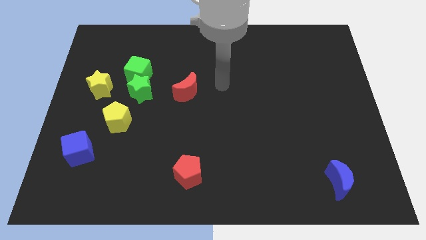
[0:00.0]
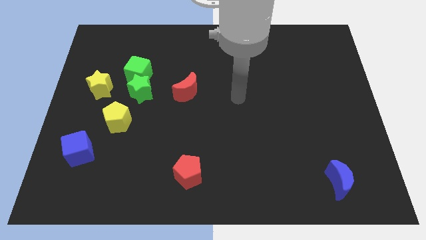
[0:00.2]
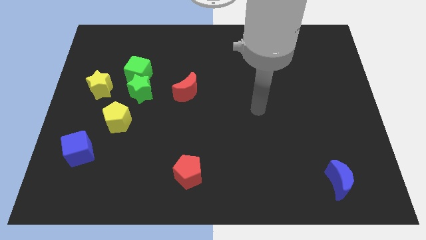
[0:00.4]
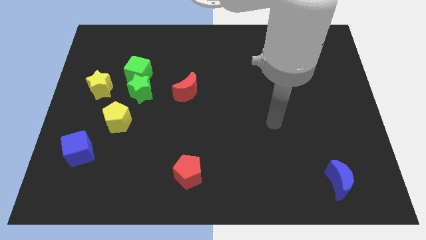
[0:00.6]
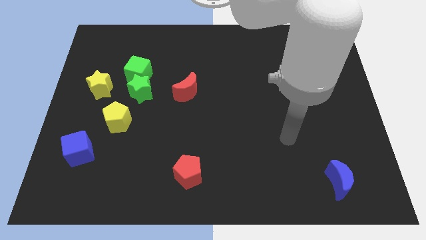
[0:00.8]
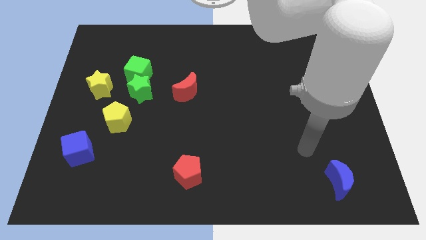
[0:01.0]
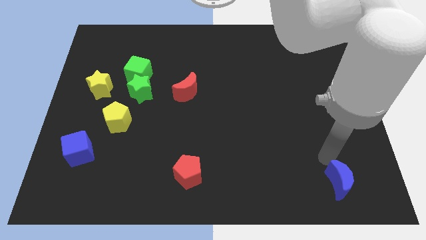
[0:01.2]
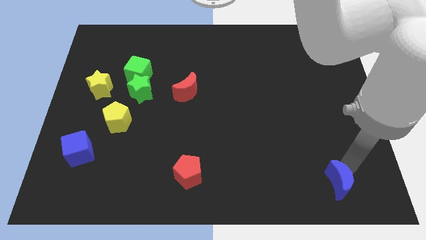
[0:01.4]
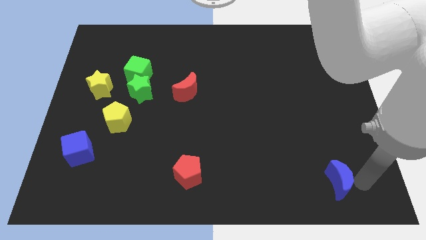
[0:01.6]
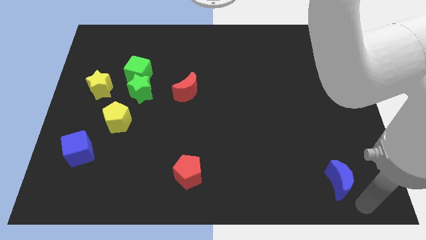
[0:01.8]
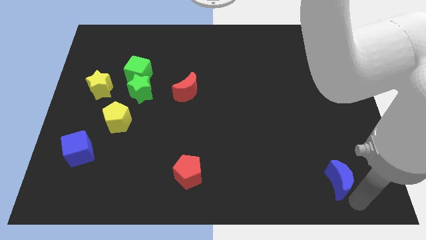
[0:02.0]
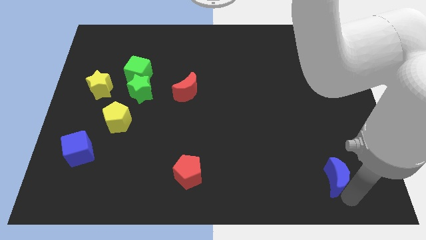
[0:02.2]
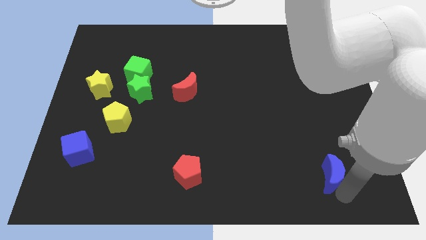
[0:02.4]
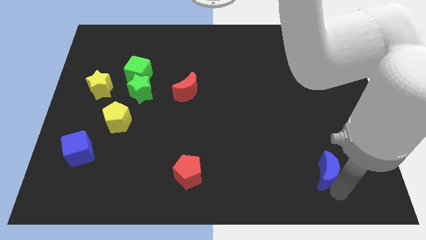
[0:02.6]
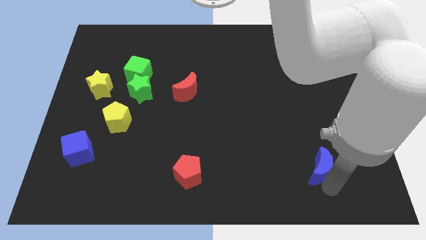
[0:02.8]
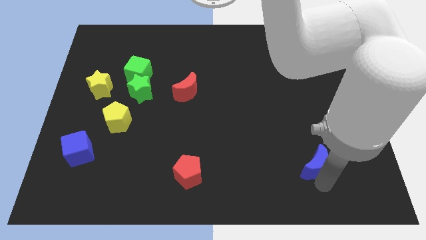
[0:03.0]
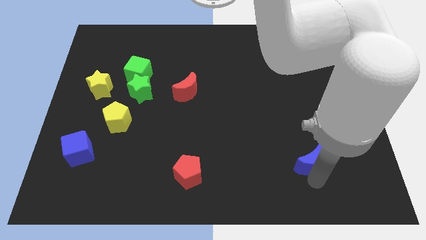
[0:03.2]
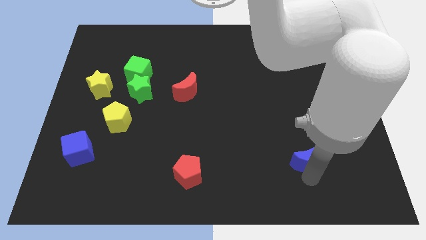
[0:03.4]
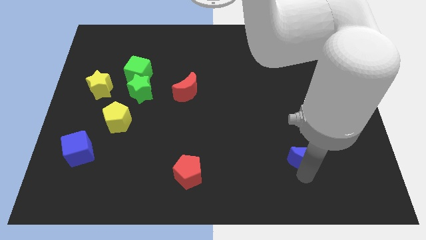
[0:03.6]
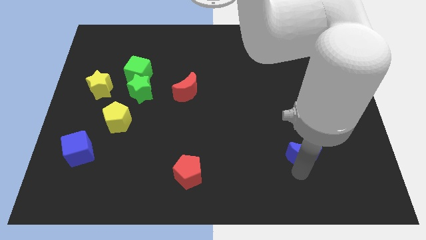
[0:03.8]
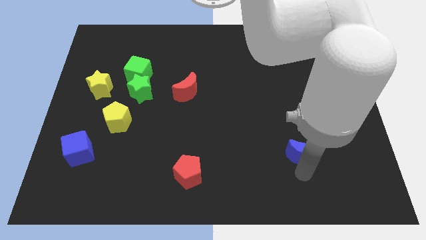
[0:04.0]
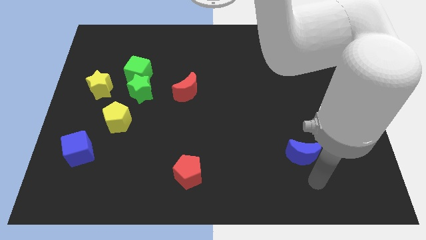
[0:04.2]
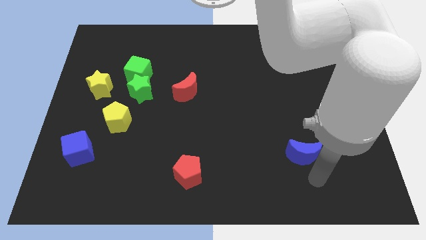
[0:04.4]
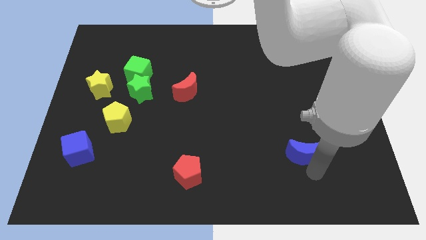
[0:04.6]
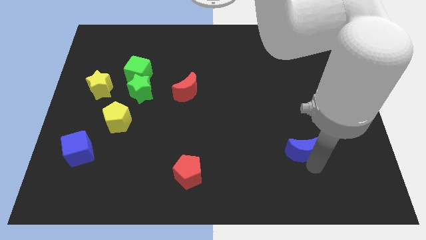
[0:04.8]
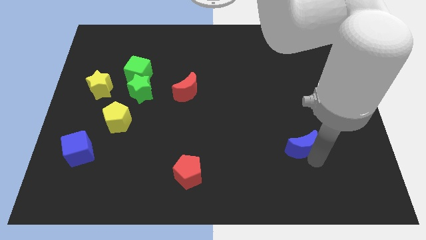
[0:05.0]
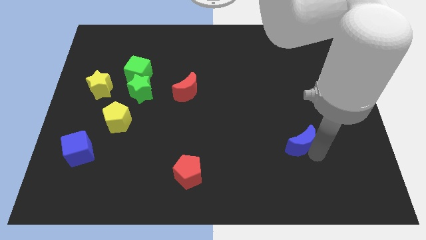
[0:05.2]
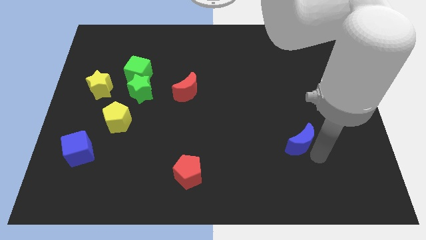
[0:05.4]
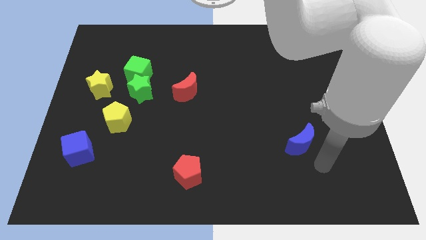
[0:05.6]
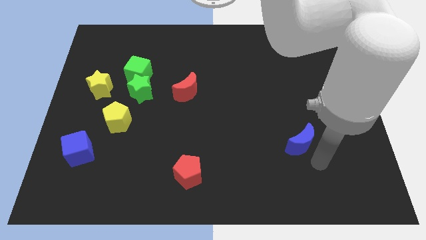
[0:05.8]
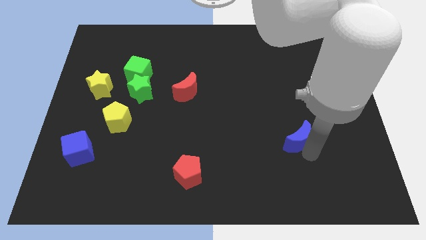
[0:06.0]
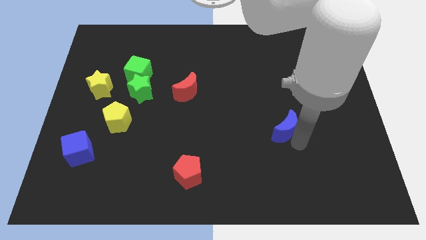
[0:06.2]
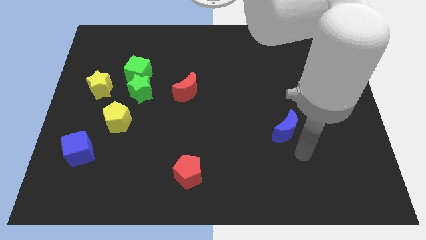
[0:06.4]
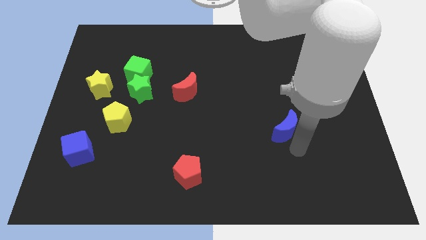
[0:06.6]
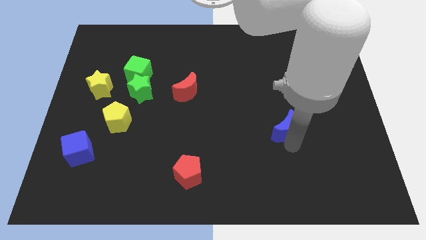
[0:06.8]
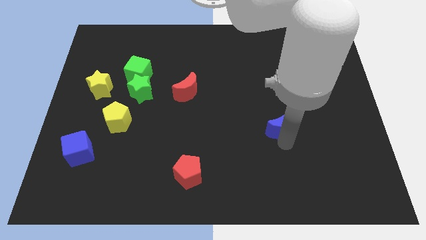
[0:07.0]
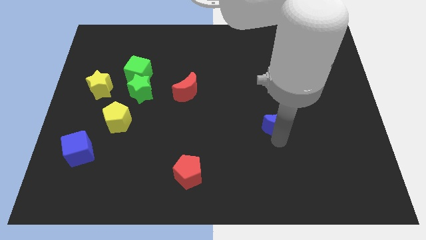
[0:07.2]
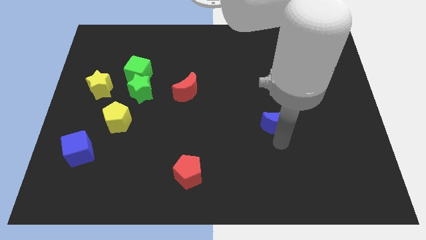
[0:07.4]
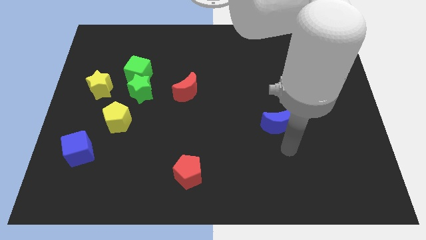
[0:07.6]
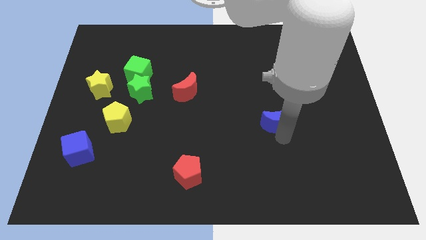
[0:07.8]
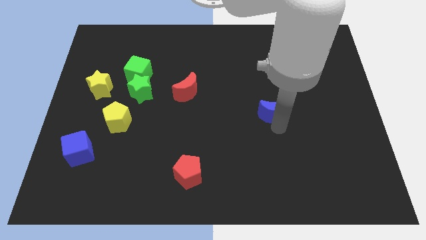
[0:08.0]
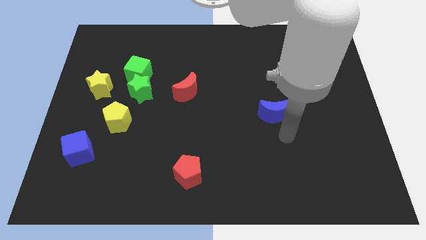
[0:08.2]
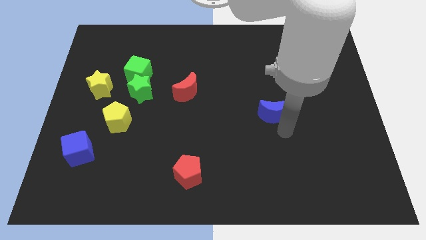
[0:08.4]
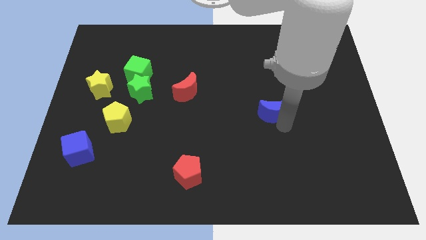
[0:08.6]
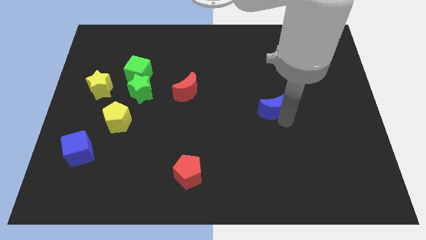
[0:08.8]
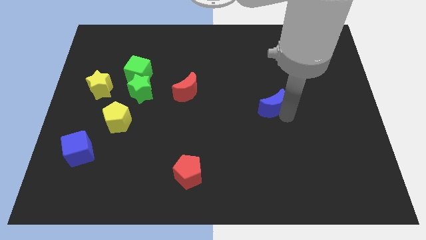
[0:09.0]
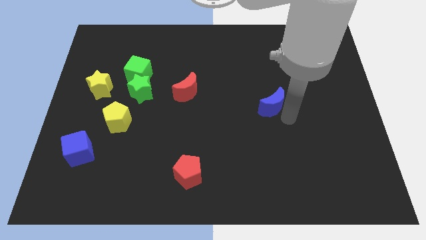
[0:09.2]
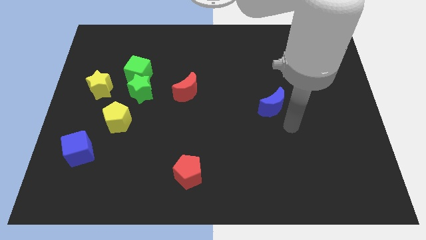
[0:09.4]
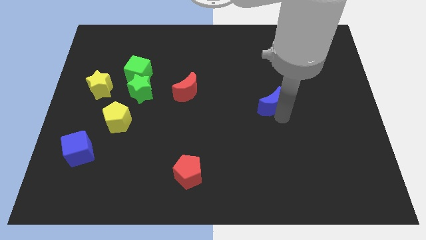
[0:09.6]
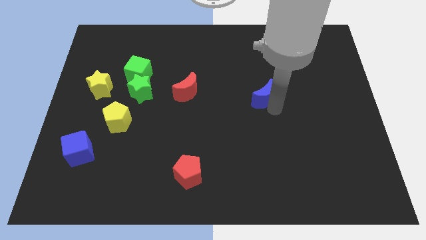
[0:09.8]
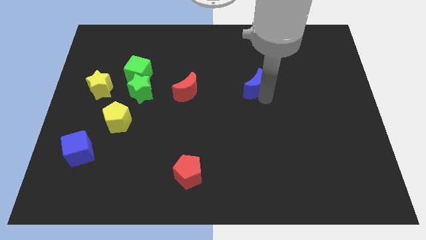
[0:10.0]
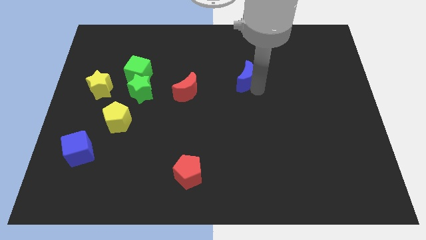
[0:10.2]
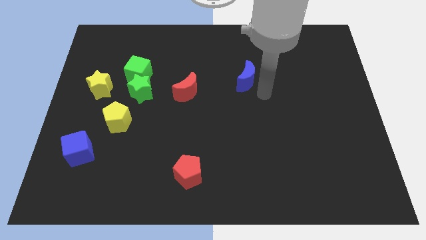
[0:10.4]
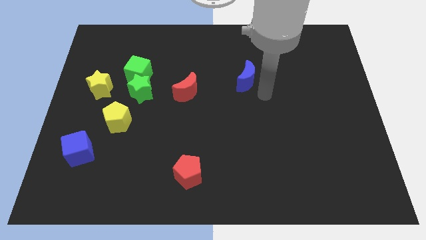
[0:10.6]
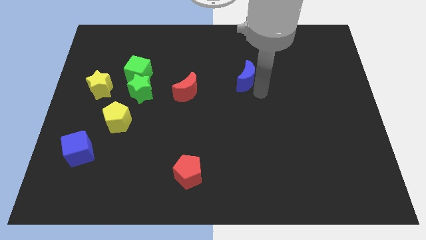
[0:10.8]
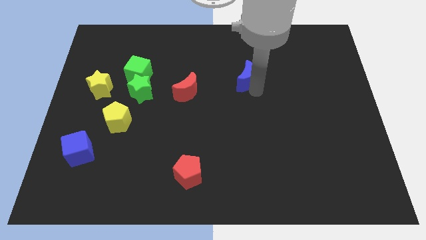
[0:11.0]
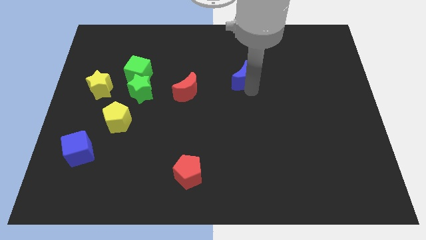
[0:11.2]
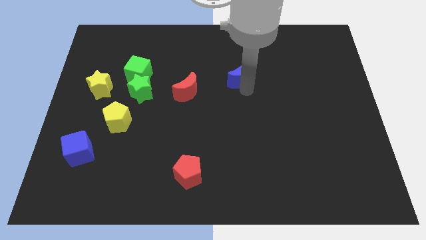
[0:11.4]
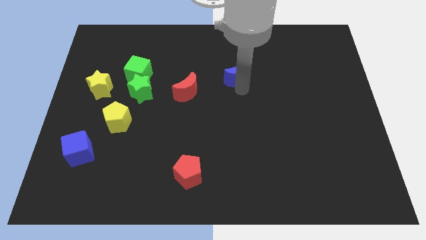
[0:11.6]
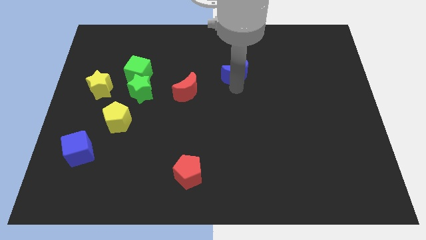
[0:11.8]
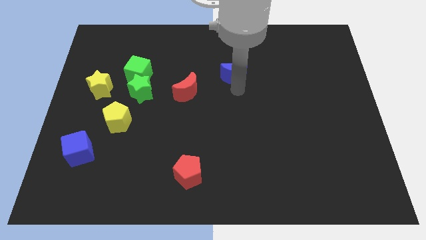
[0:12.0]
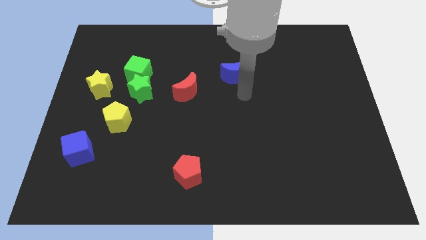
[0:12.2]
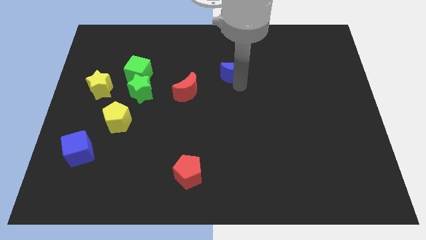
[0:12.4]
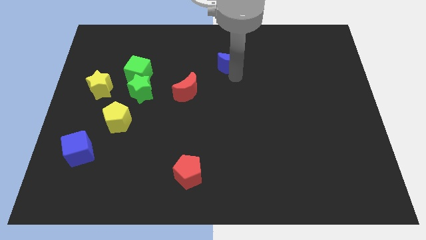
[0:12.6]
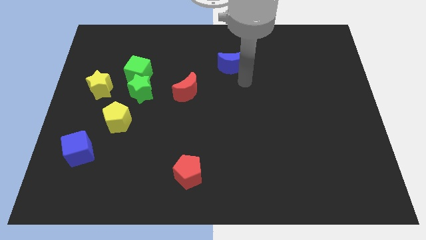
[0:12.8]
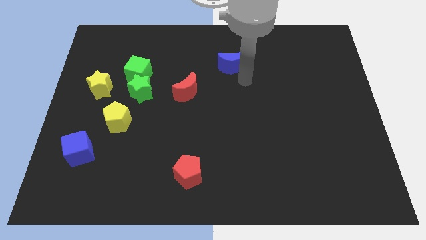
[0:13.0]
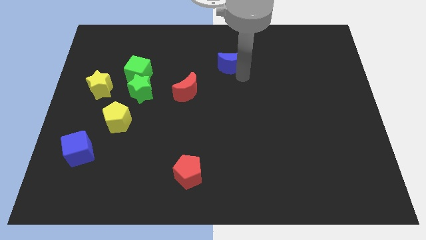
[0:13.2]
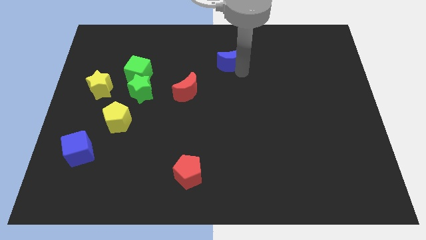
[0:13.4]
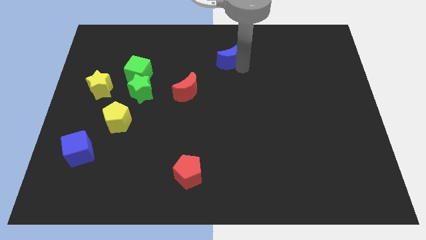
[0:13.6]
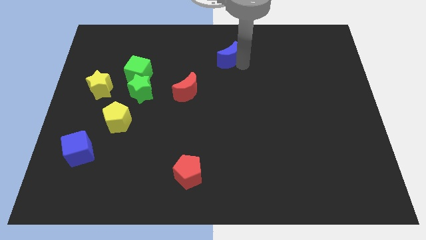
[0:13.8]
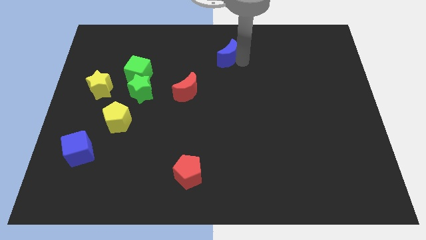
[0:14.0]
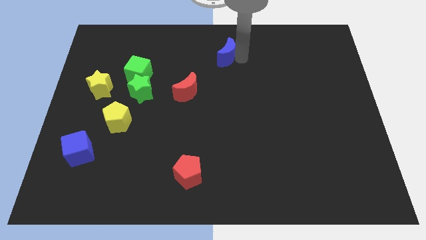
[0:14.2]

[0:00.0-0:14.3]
put the blue moon to the top
